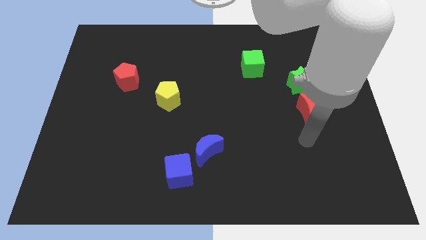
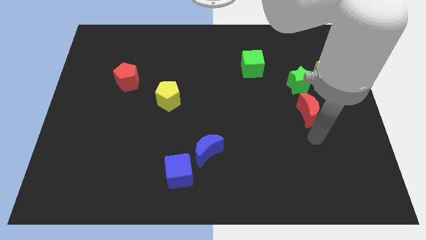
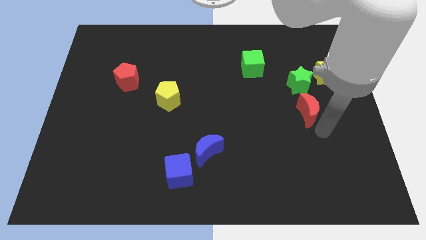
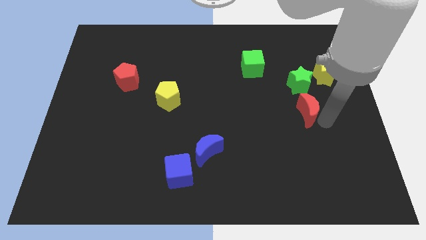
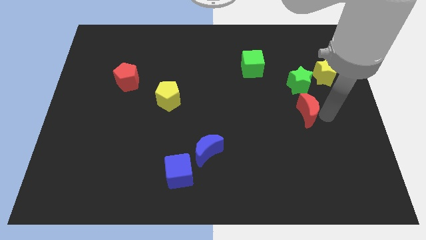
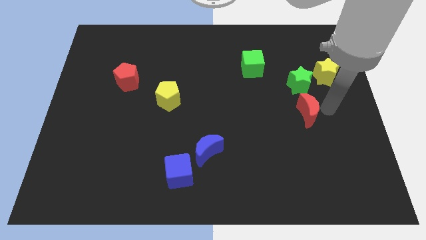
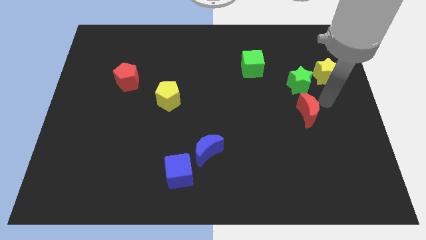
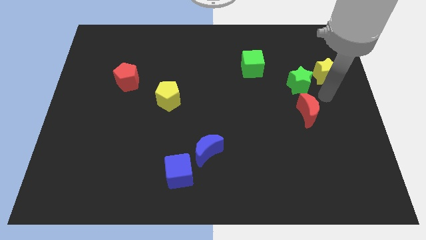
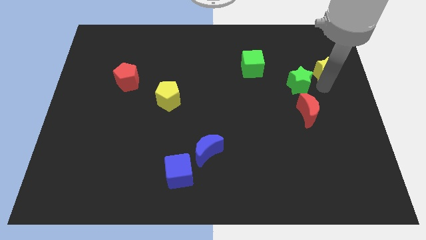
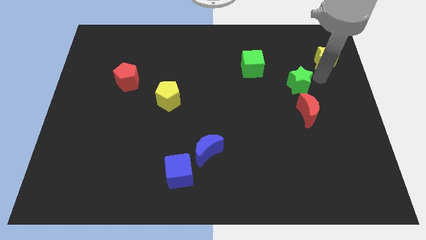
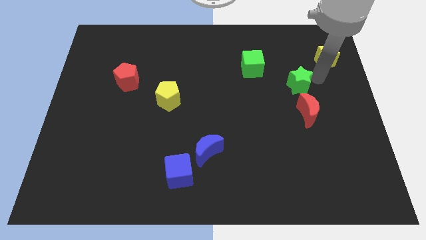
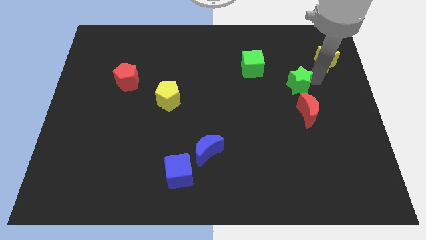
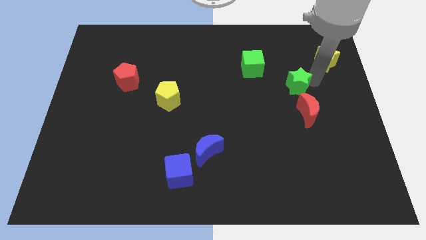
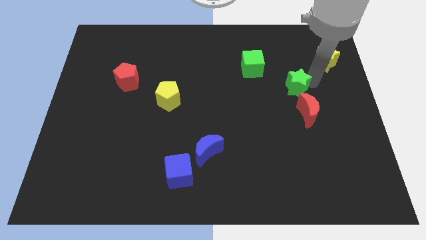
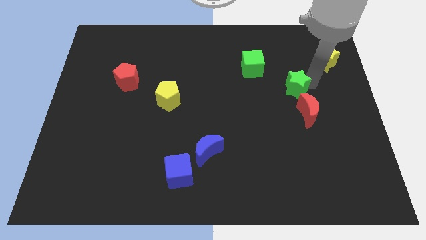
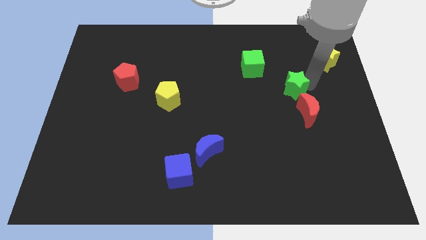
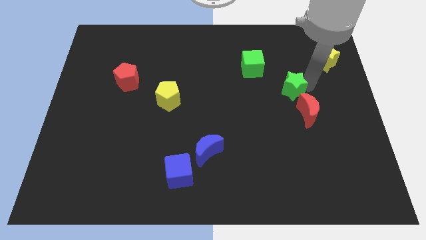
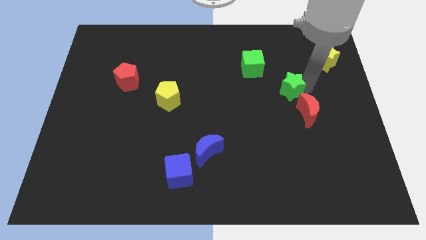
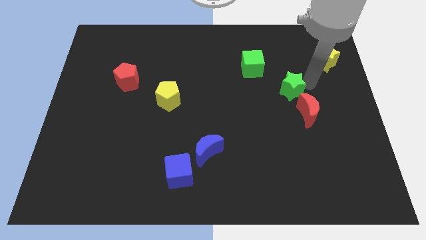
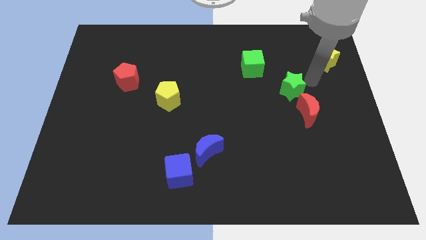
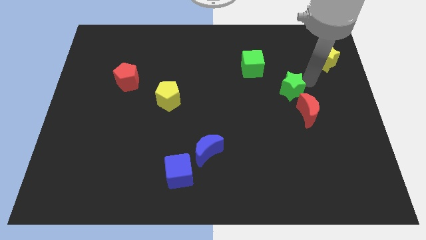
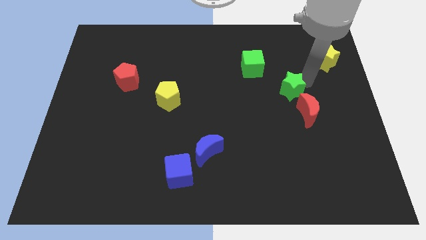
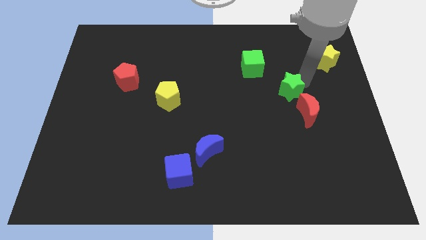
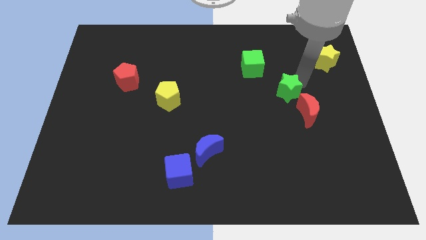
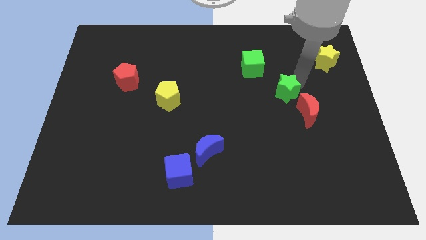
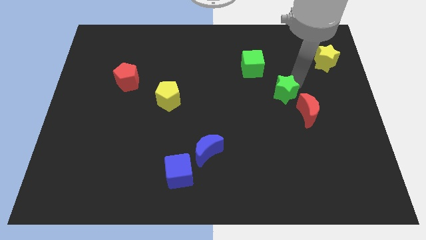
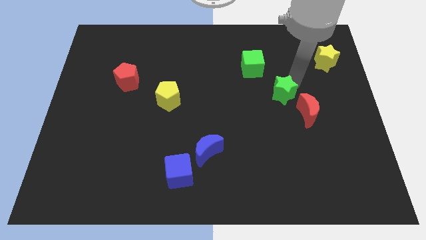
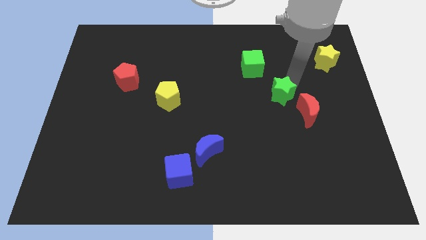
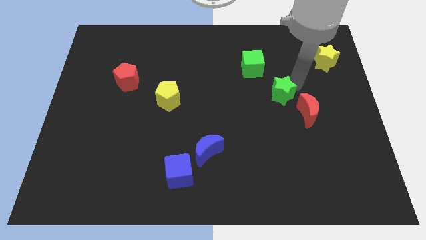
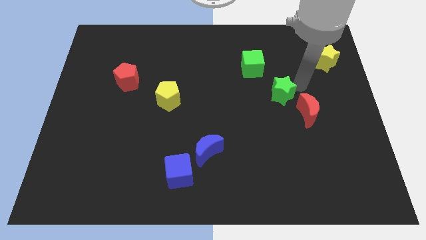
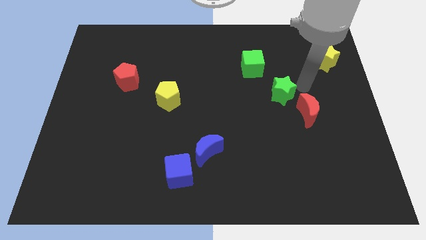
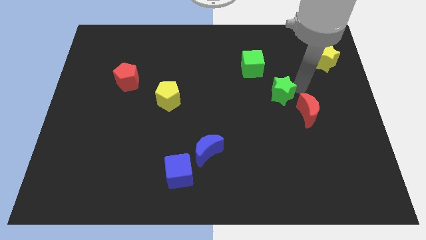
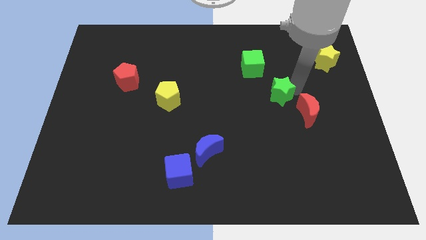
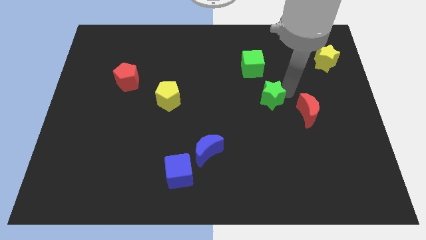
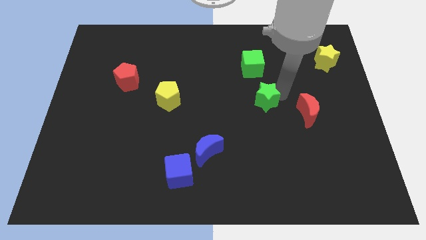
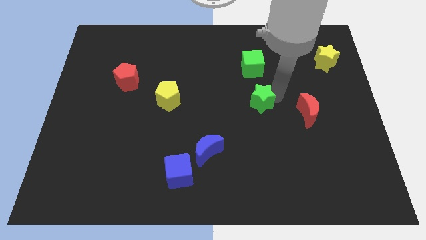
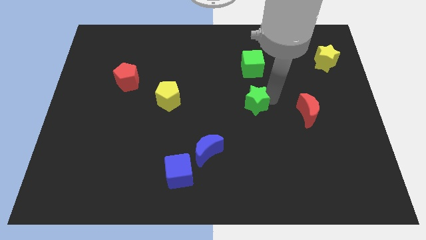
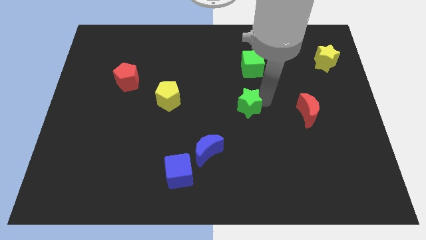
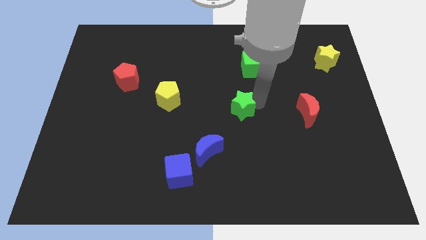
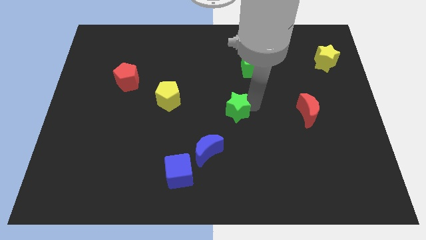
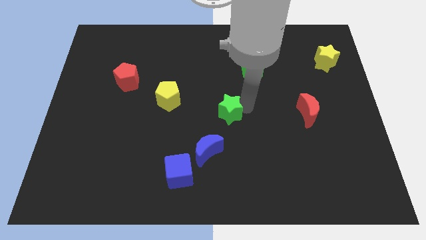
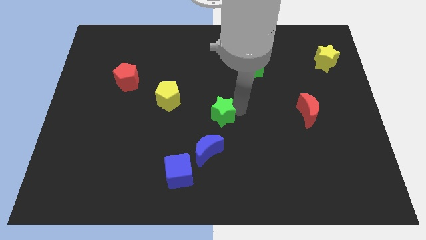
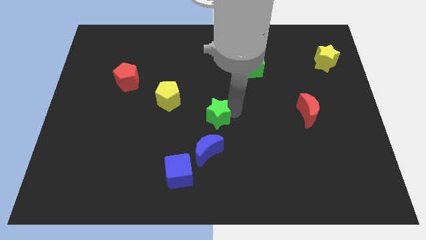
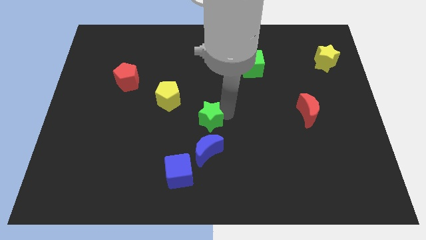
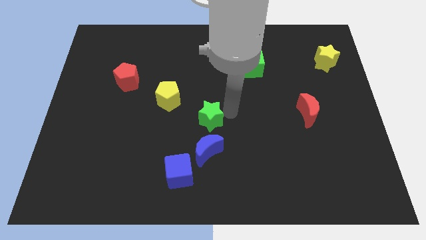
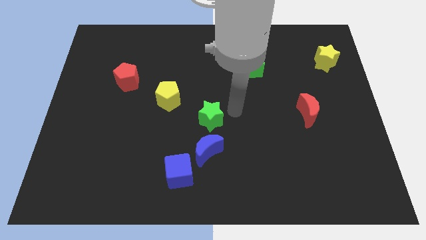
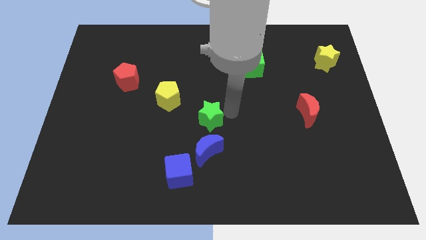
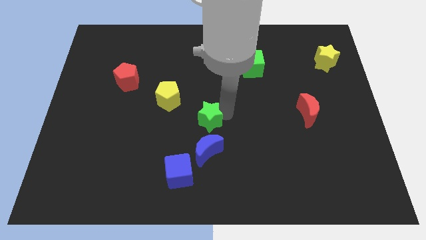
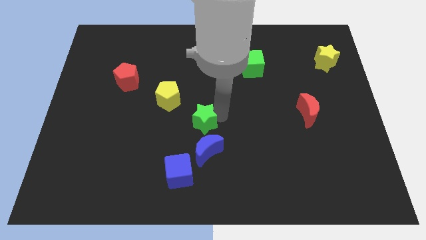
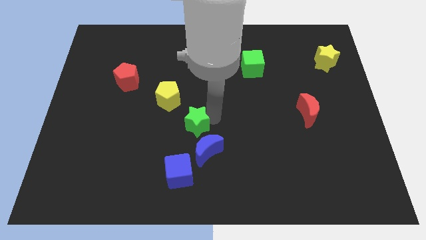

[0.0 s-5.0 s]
move the green star above the blue cube

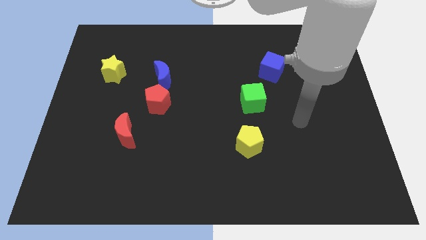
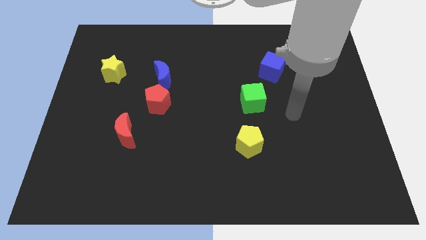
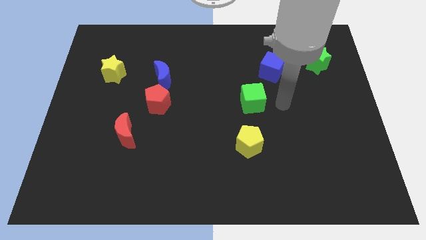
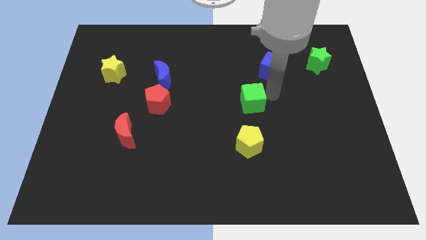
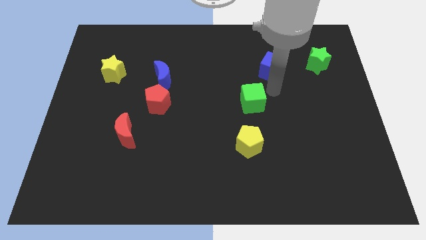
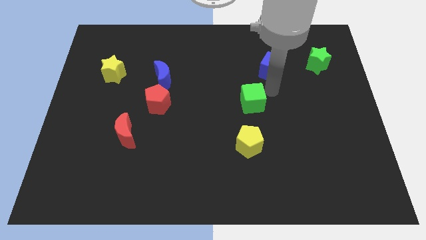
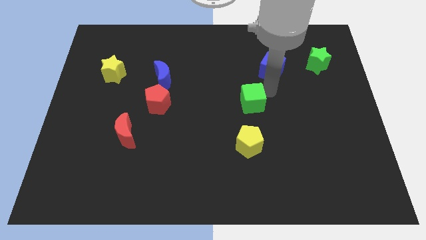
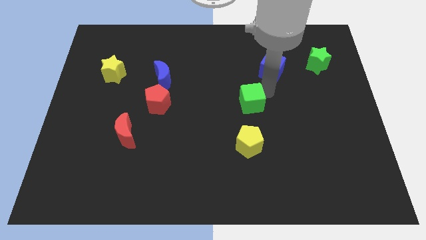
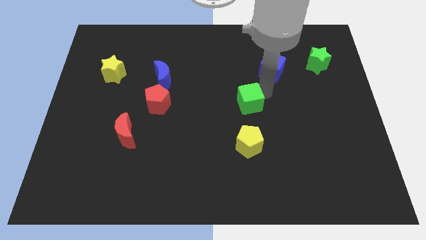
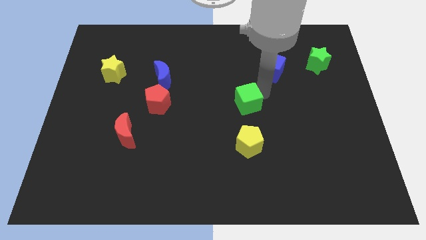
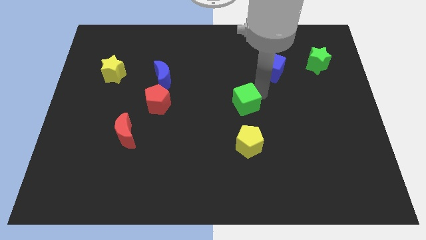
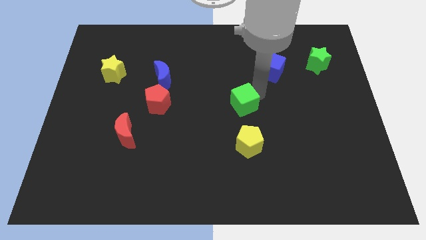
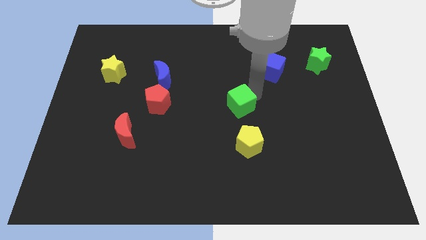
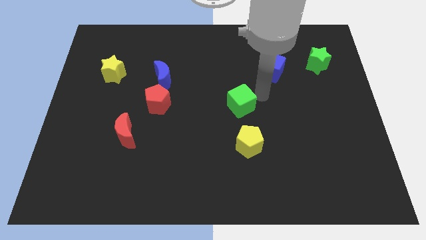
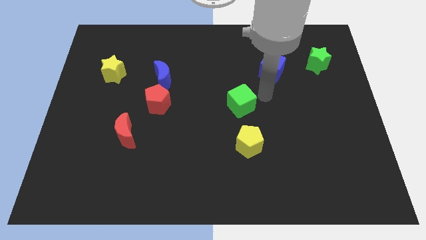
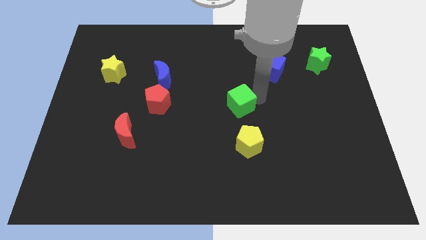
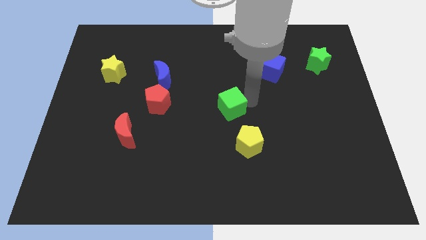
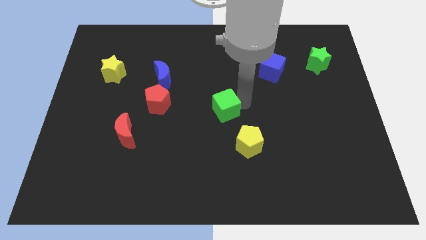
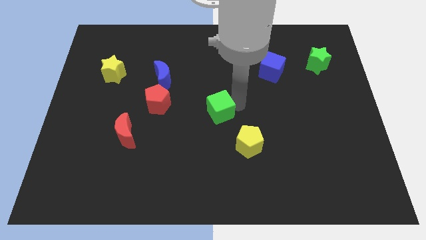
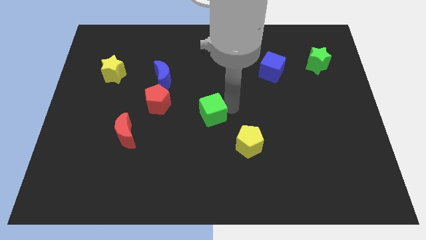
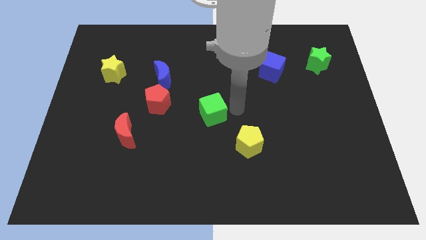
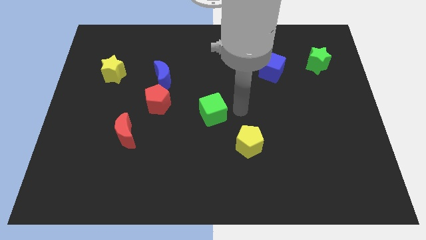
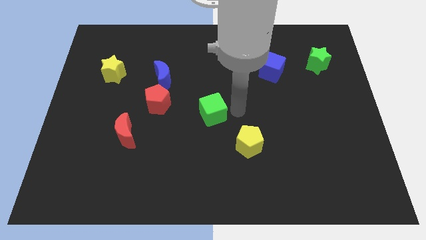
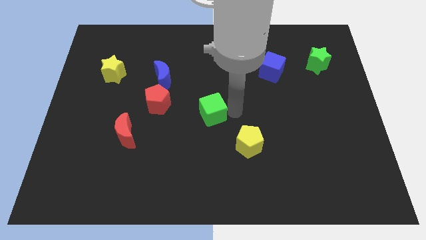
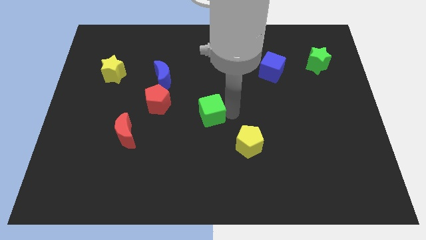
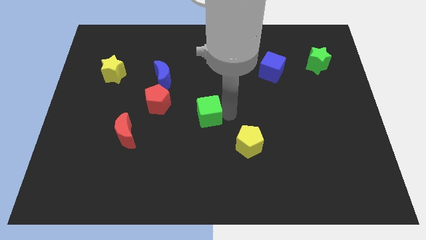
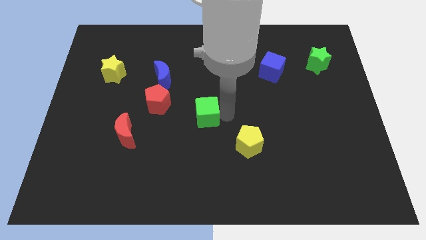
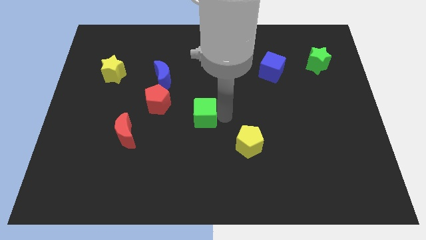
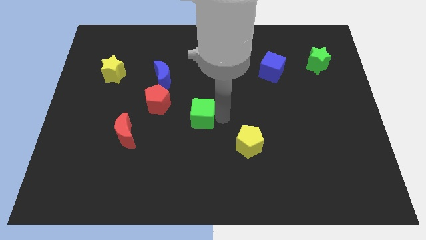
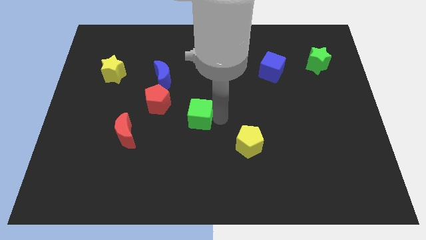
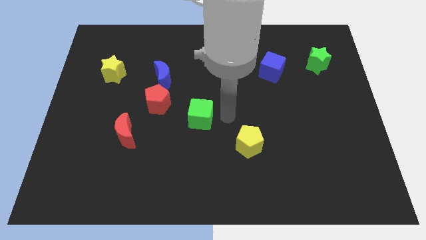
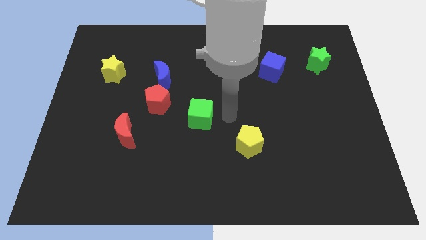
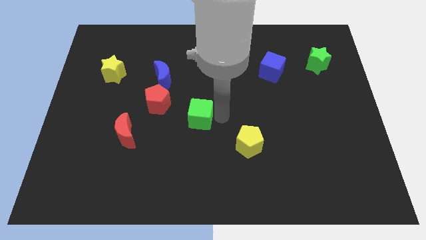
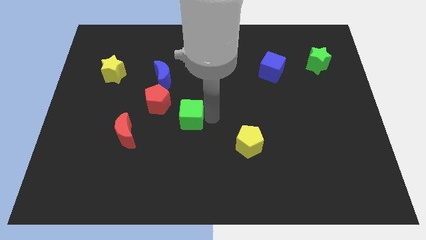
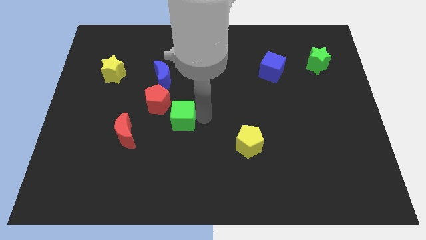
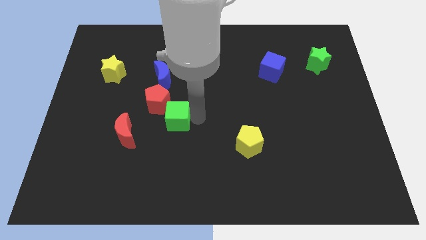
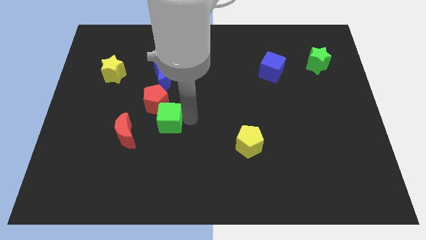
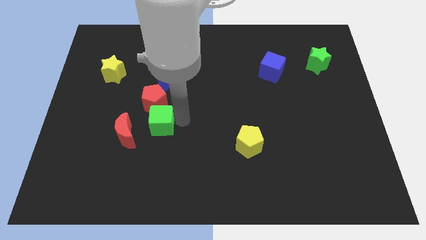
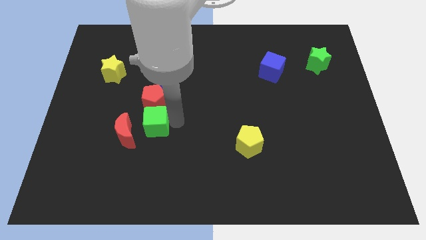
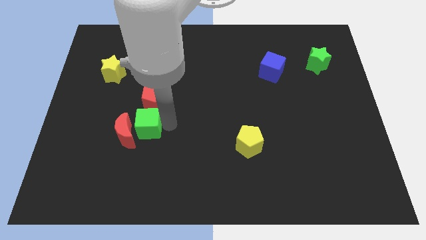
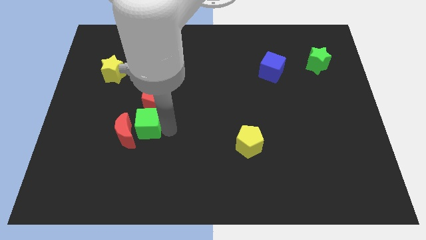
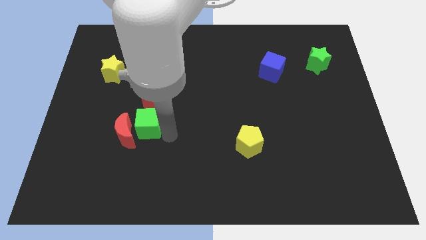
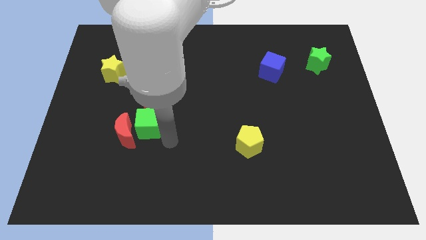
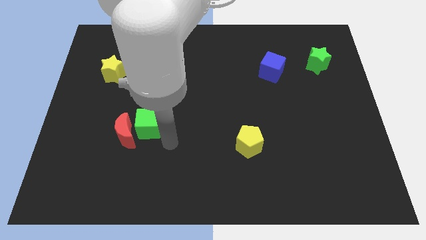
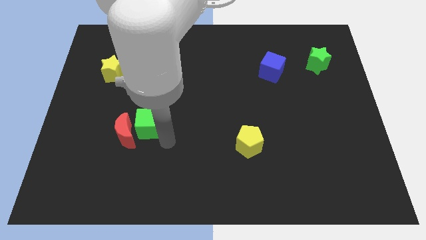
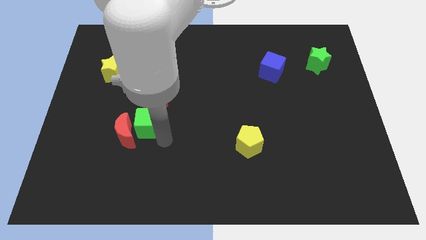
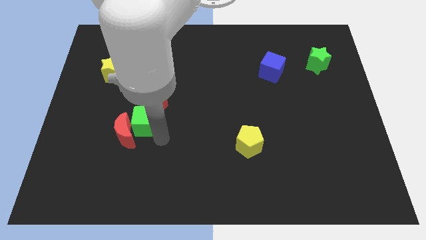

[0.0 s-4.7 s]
put the green cube above the red moon
